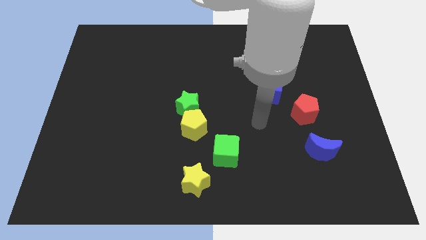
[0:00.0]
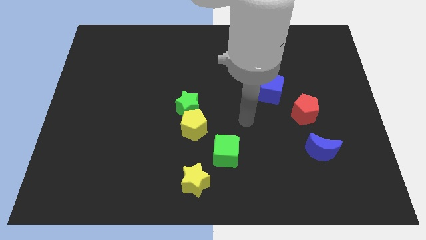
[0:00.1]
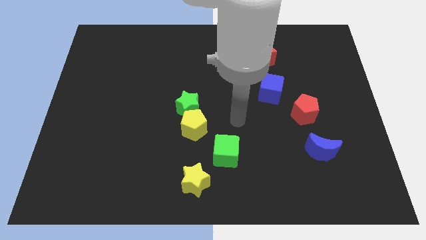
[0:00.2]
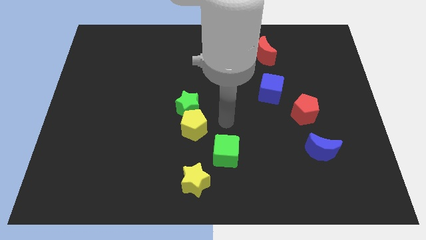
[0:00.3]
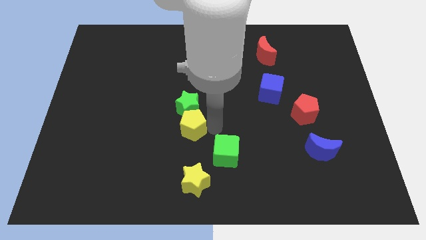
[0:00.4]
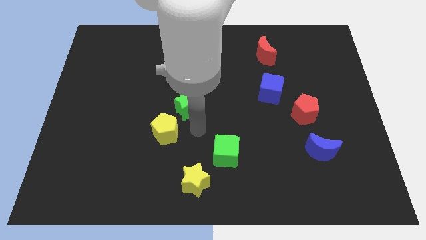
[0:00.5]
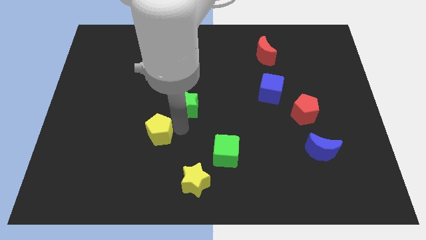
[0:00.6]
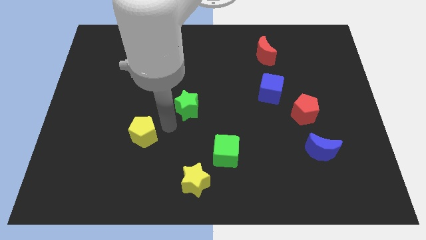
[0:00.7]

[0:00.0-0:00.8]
pull the green star apart from the yellow pentagon

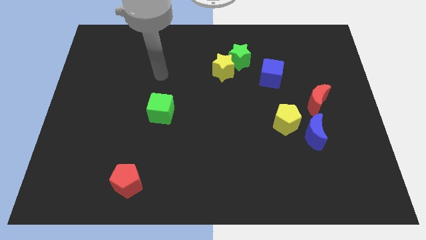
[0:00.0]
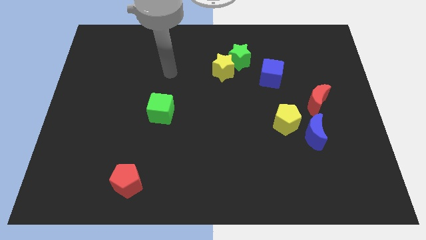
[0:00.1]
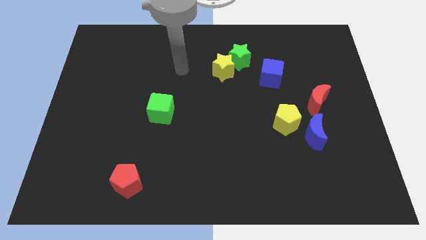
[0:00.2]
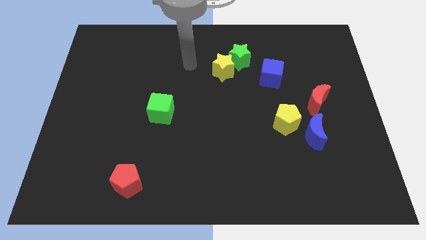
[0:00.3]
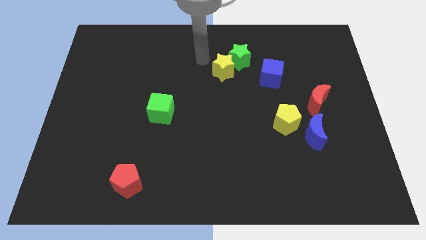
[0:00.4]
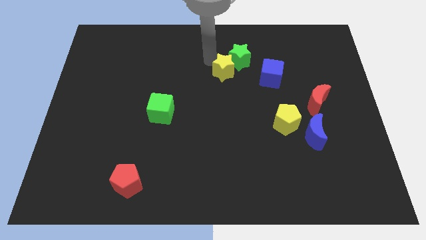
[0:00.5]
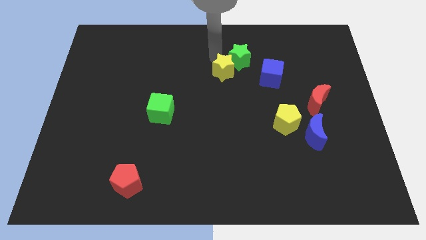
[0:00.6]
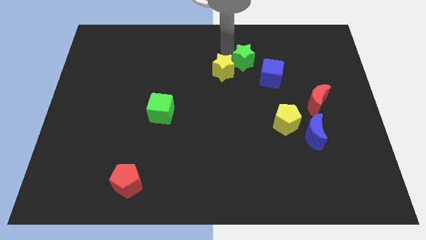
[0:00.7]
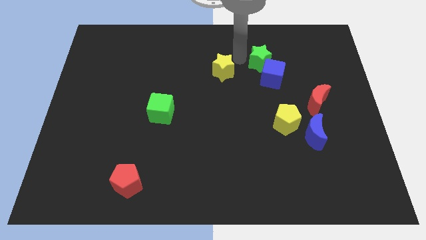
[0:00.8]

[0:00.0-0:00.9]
move the yellow star away from the green star

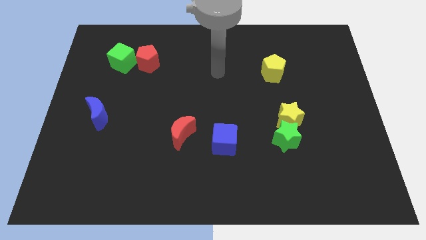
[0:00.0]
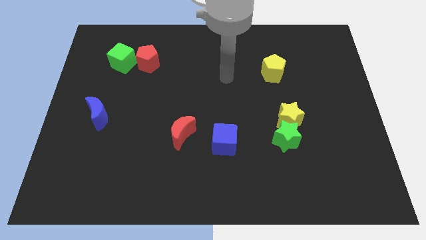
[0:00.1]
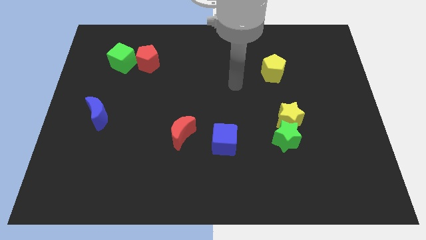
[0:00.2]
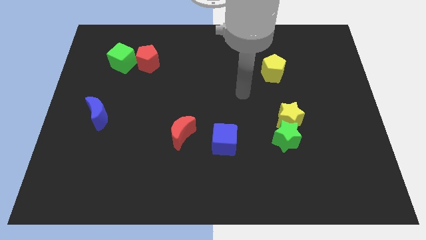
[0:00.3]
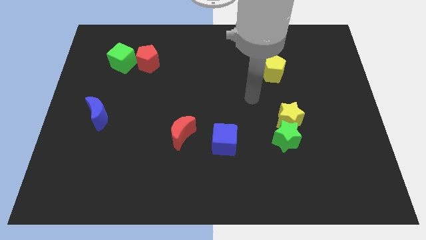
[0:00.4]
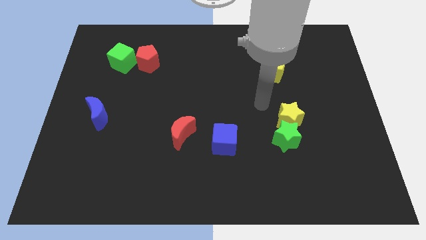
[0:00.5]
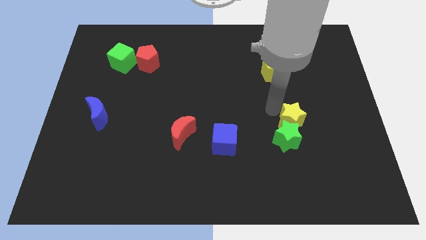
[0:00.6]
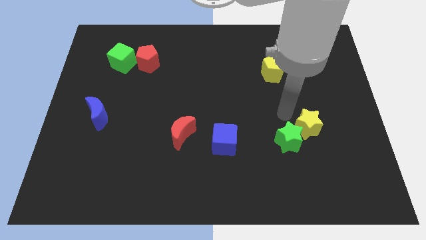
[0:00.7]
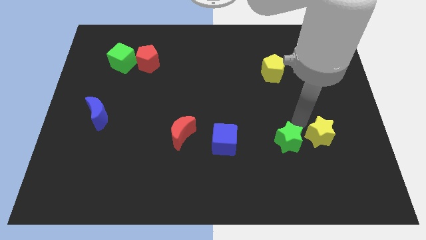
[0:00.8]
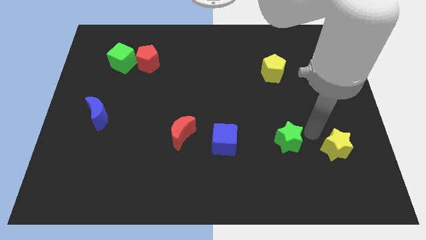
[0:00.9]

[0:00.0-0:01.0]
separate the green star from the yellow star

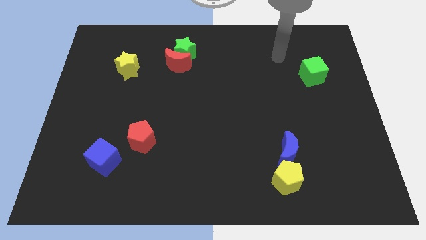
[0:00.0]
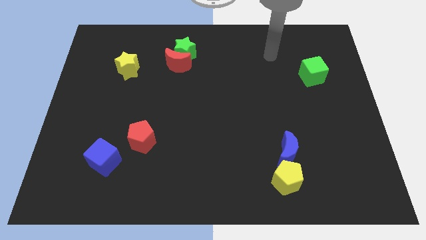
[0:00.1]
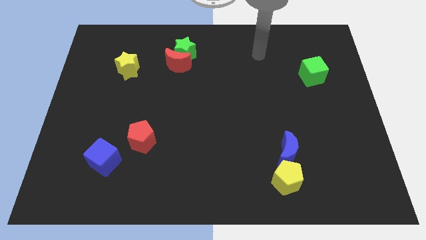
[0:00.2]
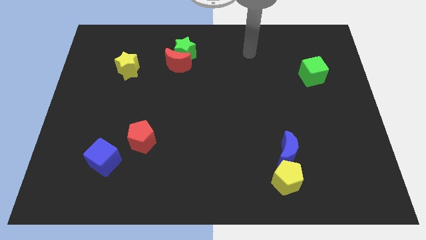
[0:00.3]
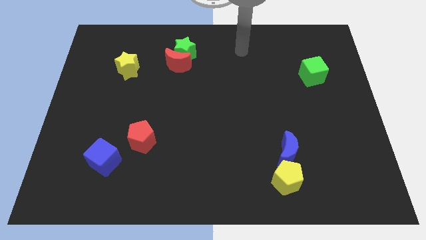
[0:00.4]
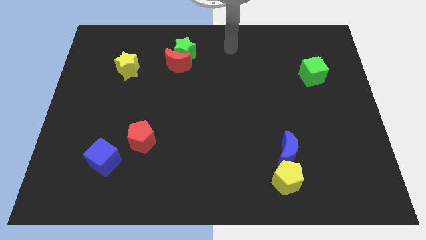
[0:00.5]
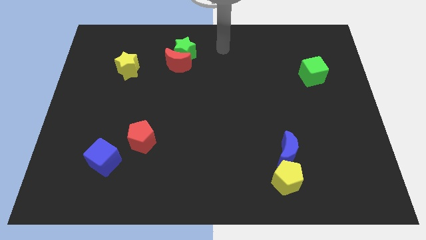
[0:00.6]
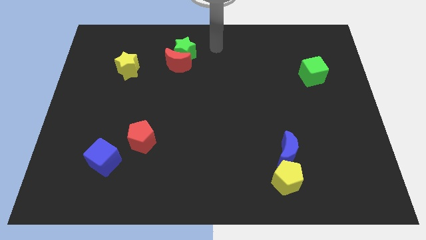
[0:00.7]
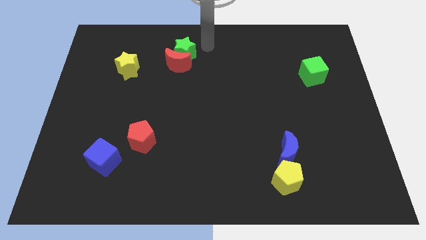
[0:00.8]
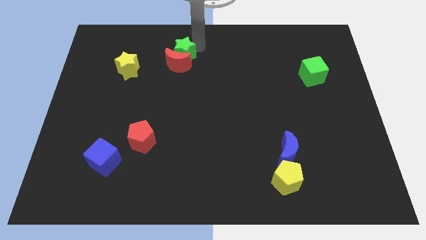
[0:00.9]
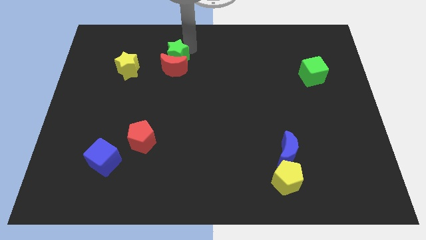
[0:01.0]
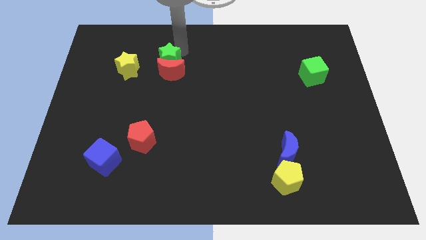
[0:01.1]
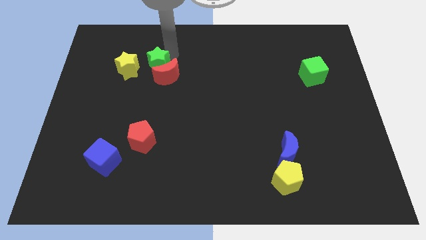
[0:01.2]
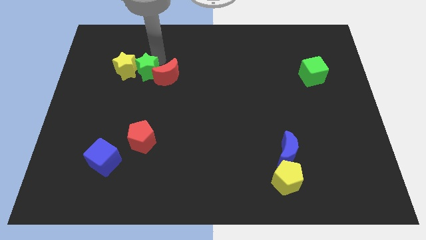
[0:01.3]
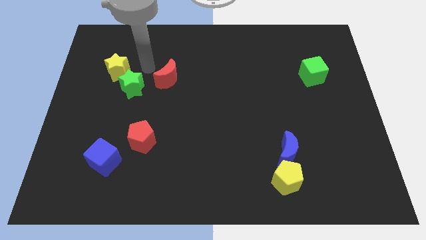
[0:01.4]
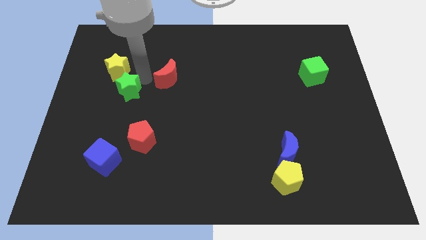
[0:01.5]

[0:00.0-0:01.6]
separate the red moon from the green star

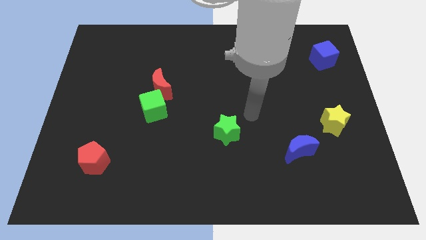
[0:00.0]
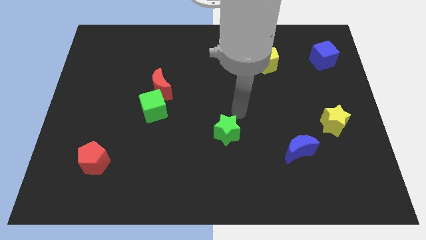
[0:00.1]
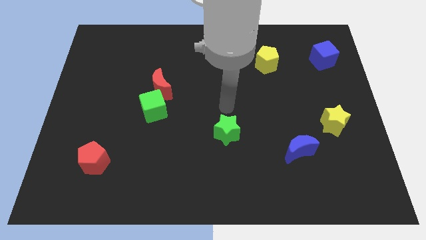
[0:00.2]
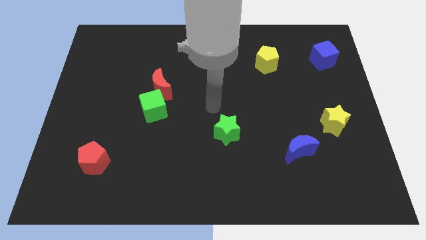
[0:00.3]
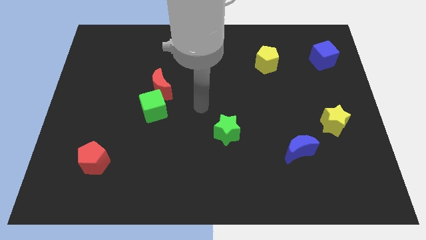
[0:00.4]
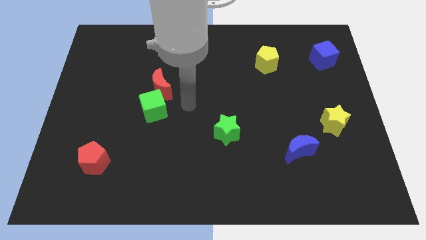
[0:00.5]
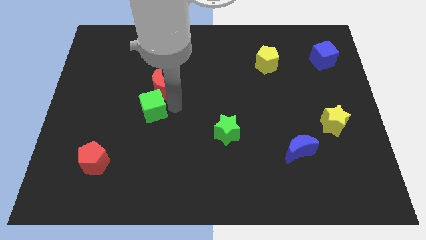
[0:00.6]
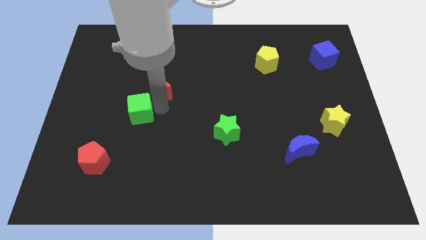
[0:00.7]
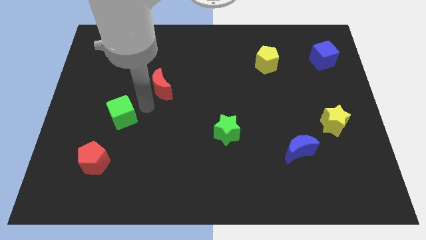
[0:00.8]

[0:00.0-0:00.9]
pull the red moon apart from the green cube

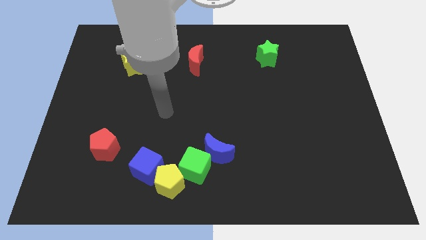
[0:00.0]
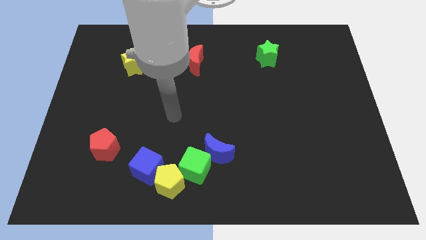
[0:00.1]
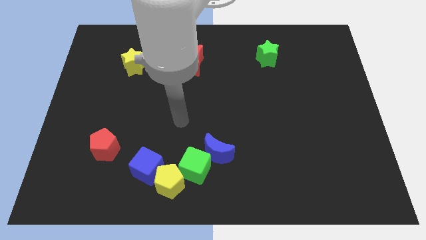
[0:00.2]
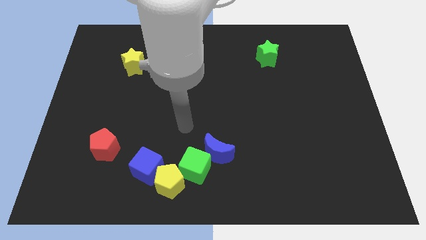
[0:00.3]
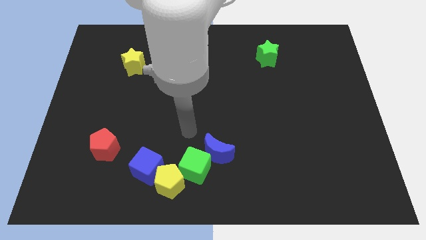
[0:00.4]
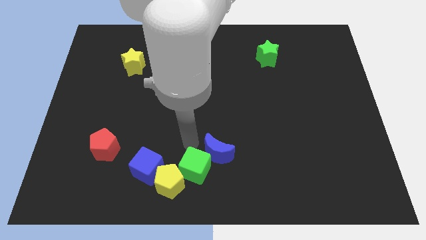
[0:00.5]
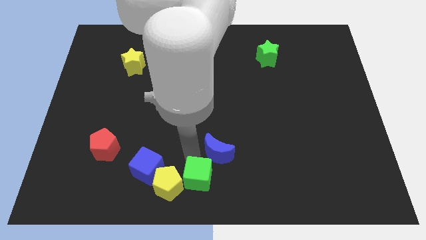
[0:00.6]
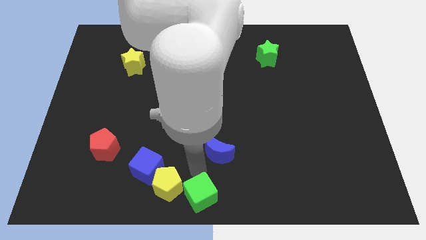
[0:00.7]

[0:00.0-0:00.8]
pull the blue moon apart from the green cube

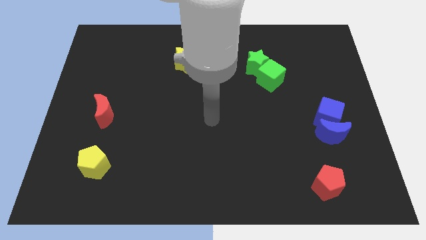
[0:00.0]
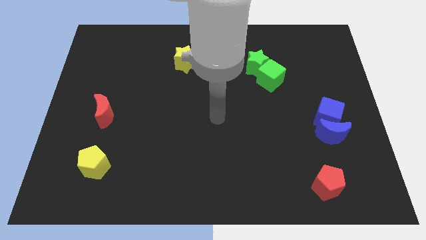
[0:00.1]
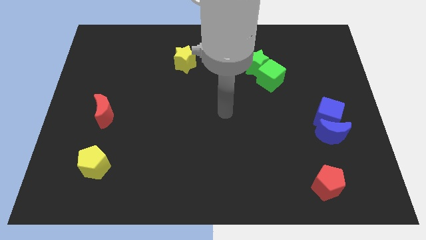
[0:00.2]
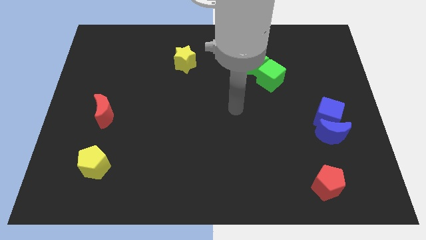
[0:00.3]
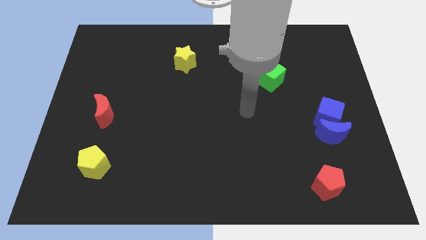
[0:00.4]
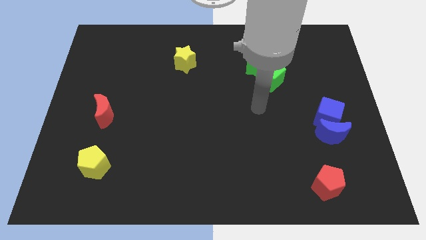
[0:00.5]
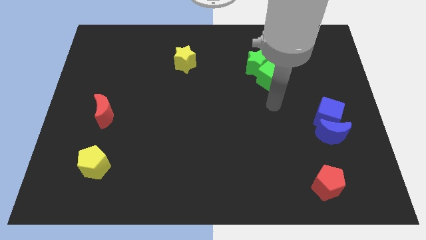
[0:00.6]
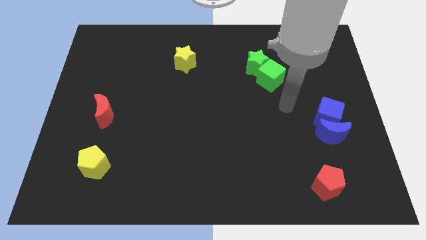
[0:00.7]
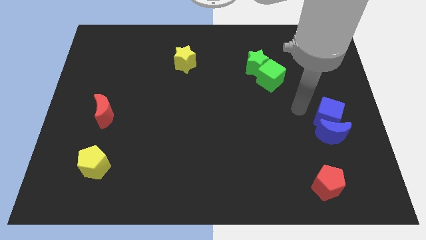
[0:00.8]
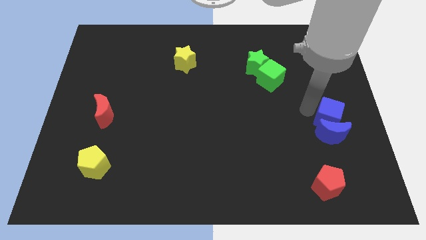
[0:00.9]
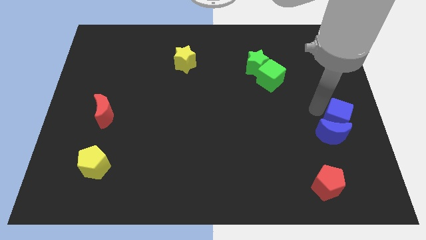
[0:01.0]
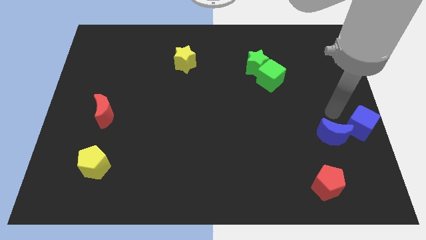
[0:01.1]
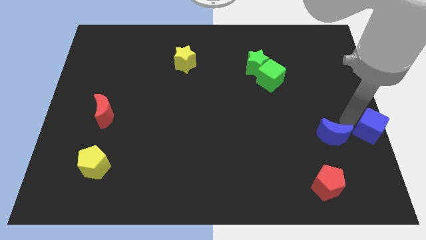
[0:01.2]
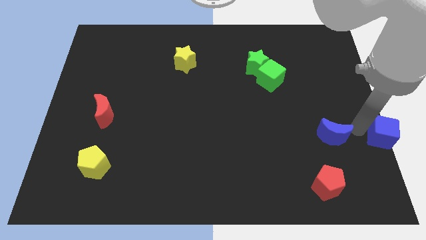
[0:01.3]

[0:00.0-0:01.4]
move the blue moon away from the blue cube

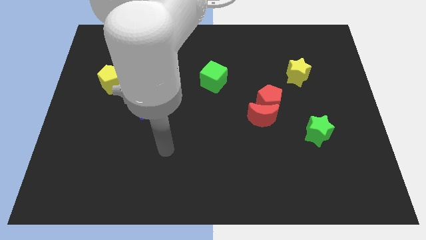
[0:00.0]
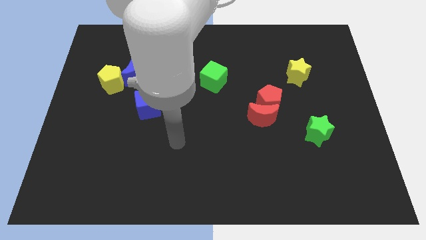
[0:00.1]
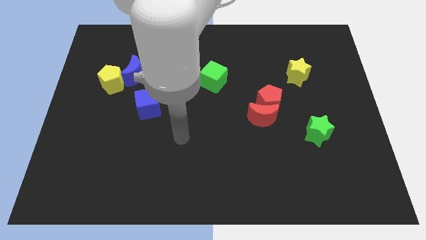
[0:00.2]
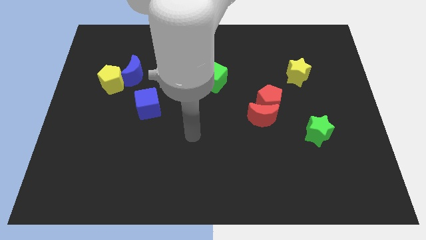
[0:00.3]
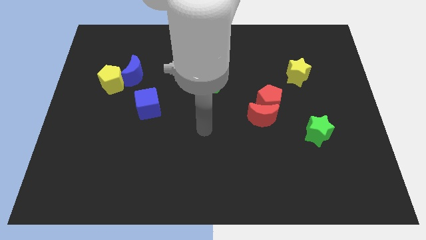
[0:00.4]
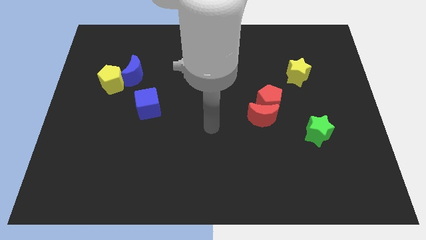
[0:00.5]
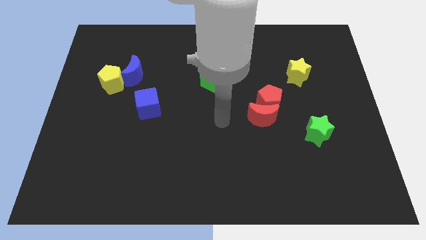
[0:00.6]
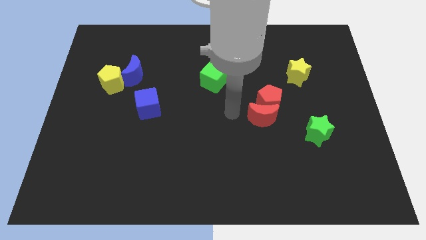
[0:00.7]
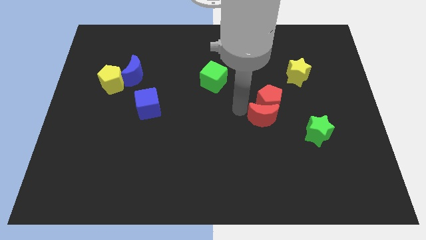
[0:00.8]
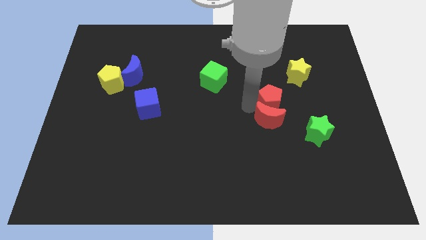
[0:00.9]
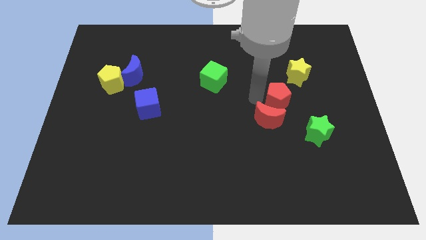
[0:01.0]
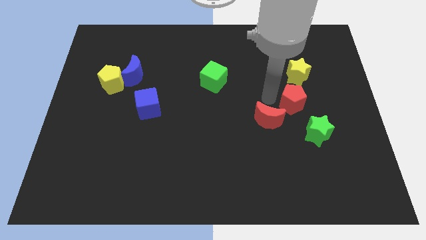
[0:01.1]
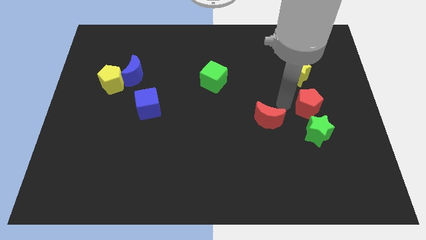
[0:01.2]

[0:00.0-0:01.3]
pull the red moon apart from the red pentagon

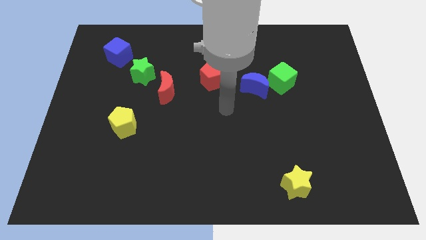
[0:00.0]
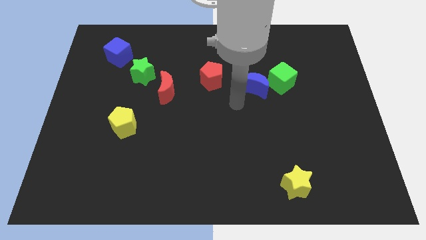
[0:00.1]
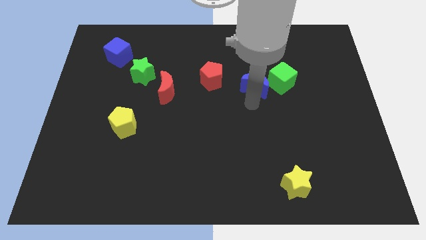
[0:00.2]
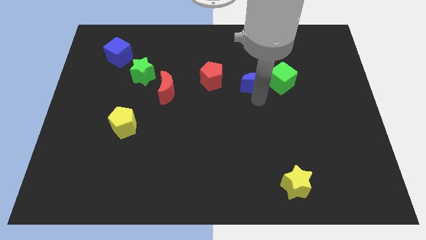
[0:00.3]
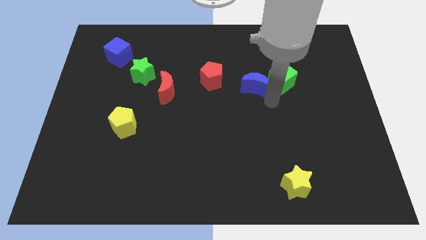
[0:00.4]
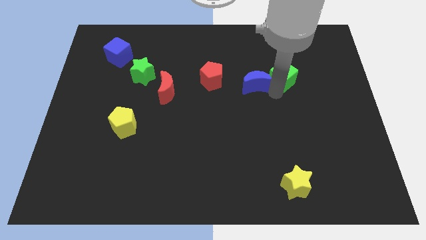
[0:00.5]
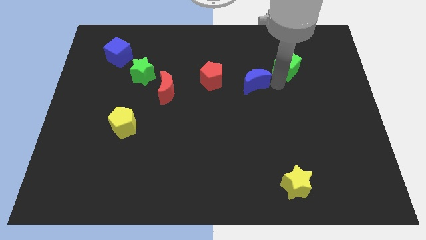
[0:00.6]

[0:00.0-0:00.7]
move the blue moon away from the green cube
